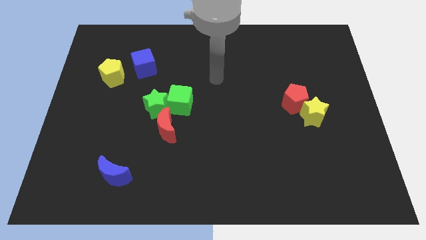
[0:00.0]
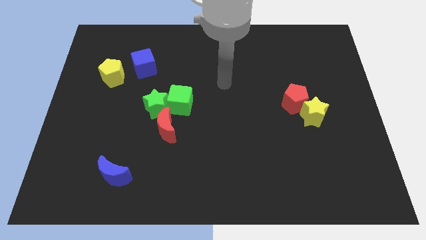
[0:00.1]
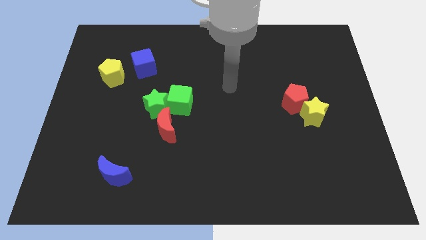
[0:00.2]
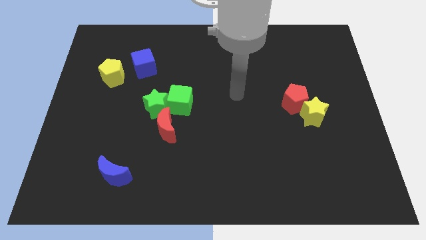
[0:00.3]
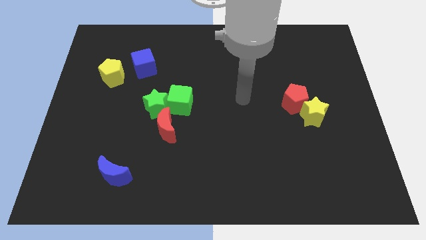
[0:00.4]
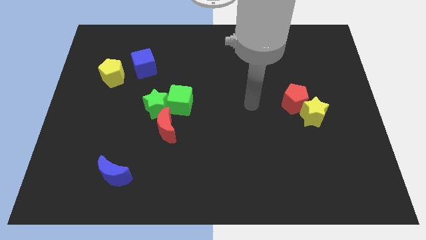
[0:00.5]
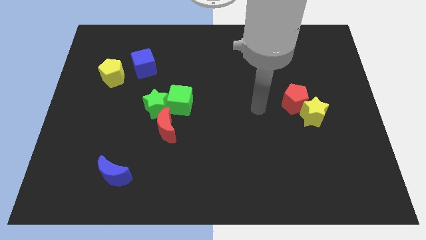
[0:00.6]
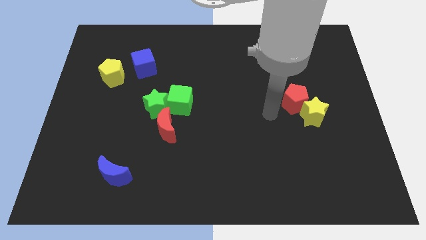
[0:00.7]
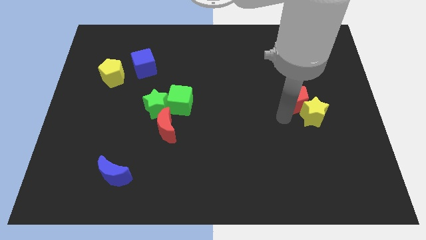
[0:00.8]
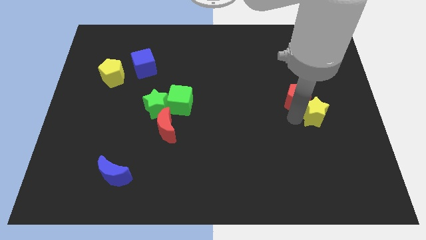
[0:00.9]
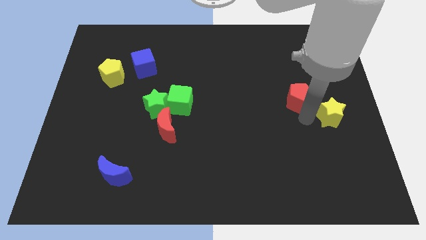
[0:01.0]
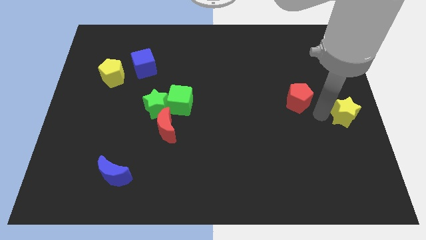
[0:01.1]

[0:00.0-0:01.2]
separate the red pentagon from the yellow star

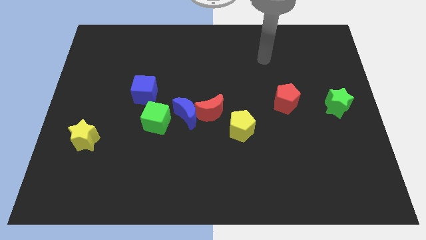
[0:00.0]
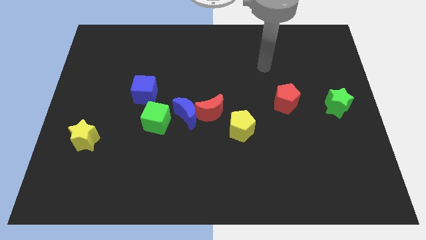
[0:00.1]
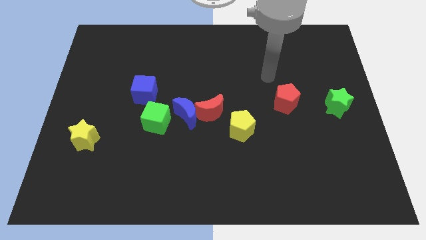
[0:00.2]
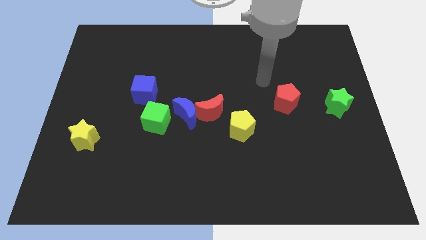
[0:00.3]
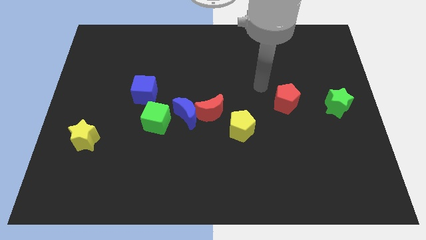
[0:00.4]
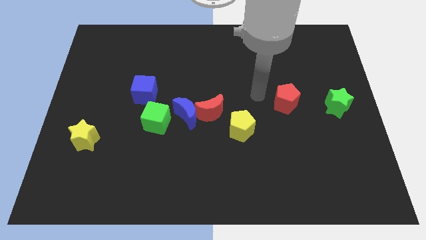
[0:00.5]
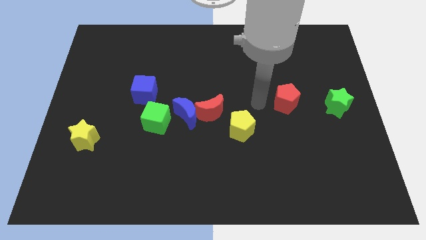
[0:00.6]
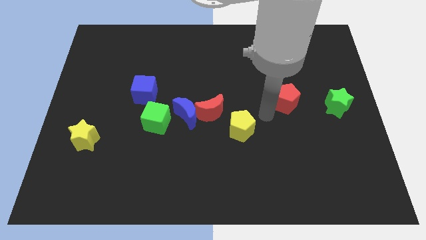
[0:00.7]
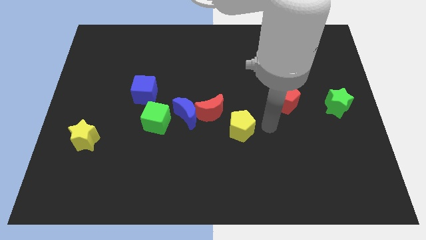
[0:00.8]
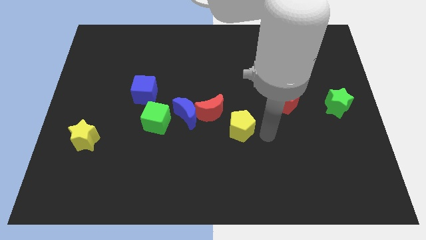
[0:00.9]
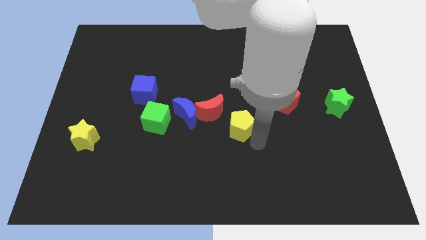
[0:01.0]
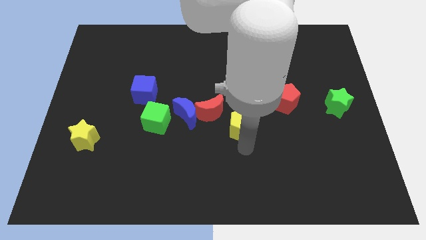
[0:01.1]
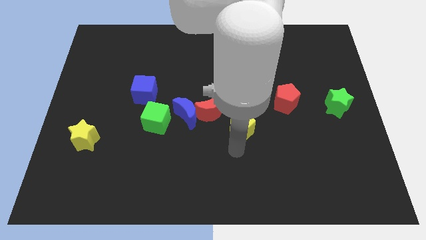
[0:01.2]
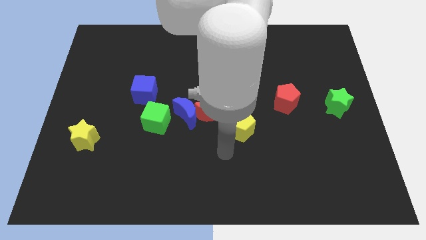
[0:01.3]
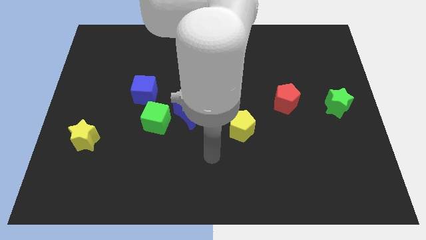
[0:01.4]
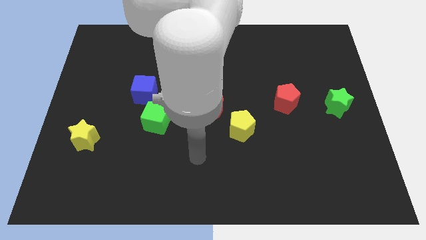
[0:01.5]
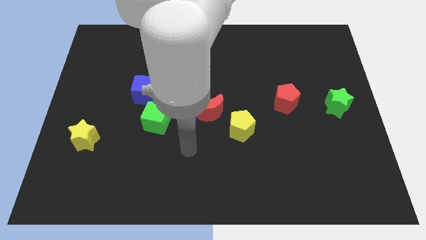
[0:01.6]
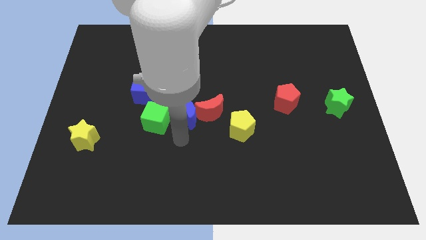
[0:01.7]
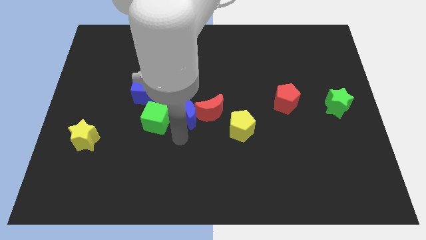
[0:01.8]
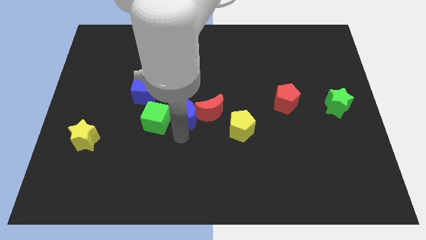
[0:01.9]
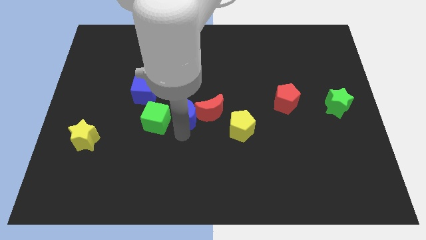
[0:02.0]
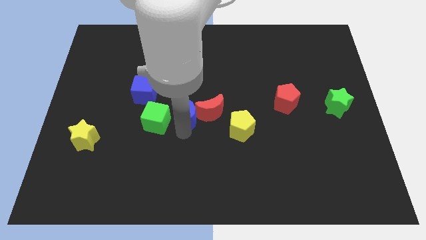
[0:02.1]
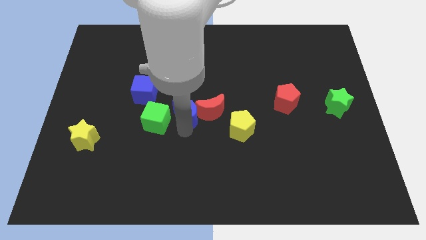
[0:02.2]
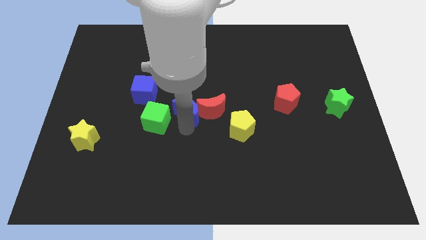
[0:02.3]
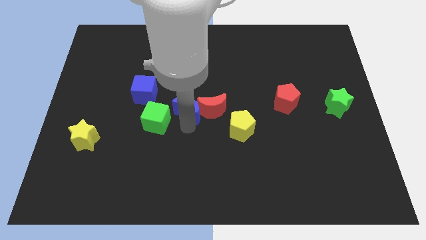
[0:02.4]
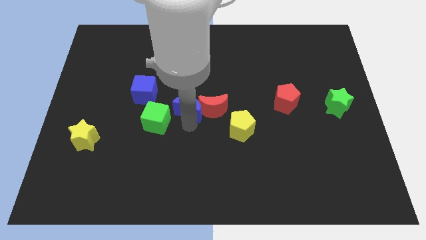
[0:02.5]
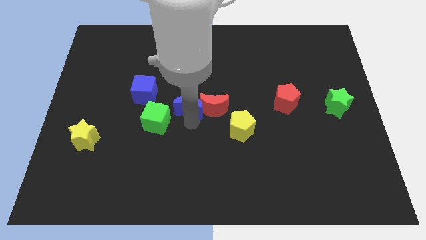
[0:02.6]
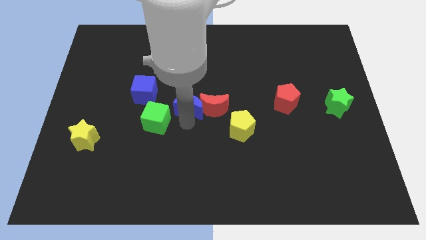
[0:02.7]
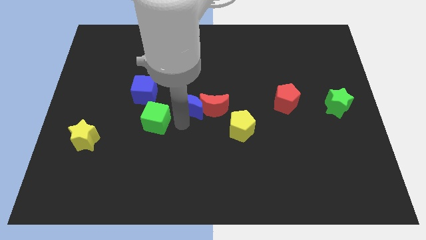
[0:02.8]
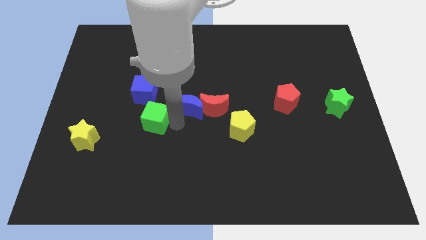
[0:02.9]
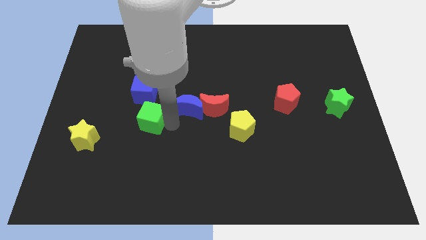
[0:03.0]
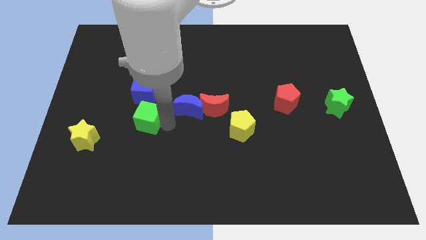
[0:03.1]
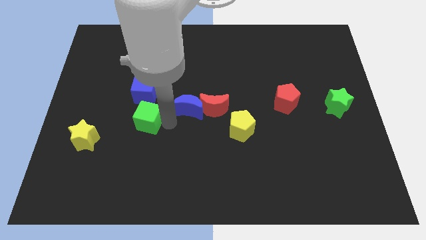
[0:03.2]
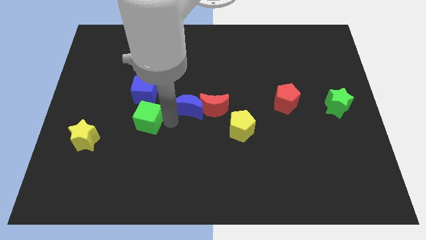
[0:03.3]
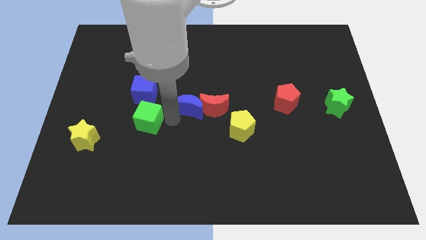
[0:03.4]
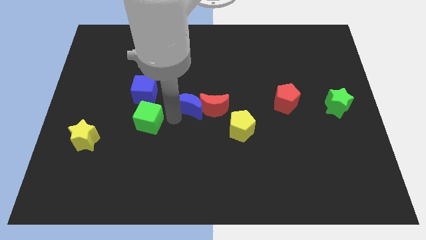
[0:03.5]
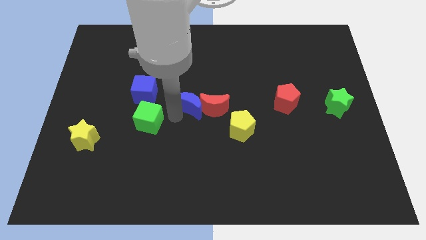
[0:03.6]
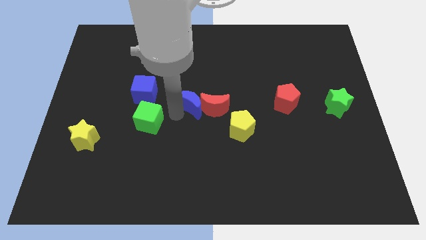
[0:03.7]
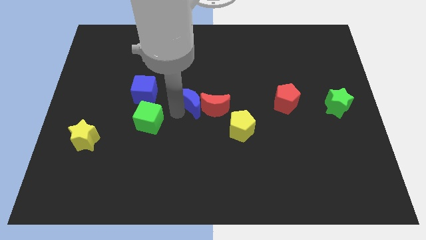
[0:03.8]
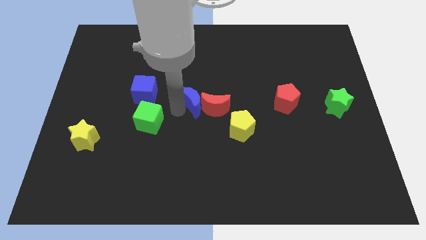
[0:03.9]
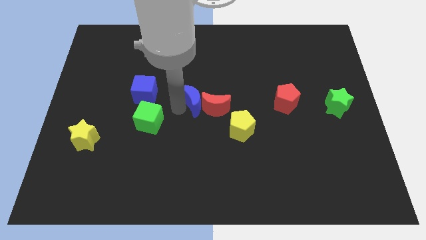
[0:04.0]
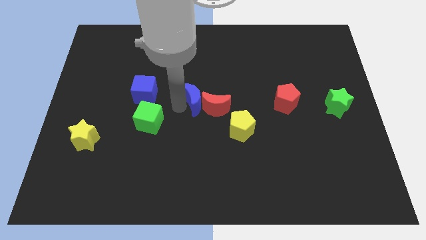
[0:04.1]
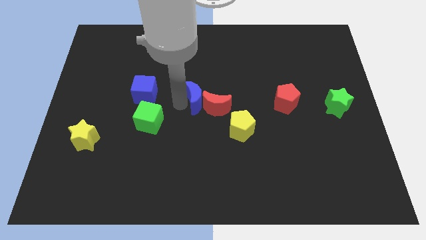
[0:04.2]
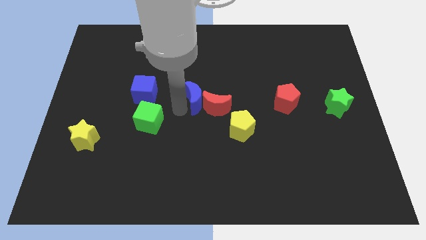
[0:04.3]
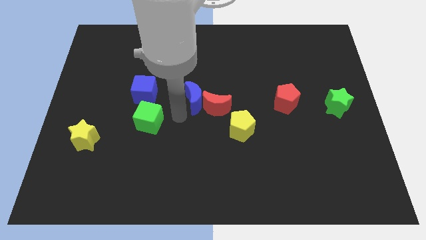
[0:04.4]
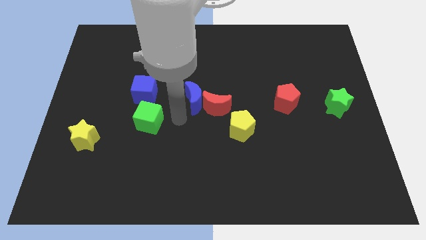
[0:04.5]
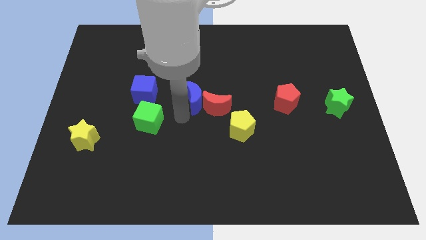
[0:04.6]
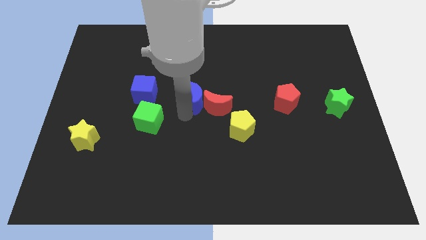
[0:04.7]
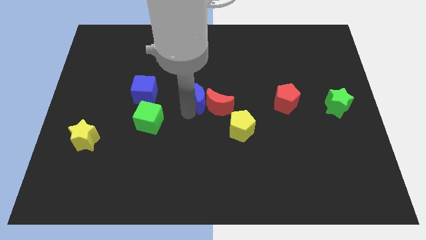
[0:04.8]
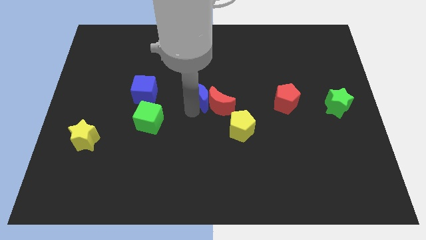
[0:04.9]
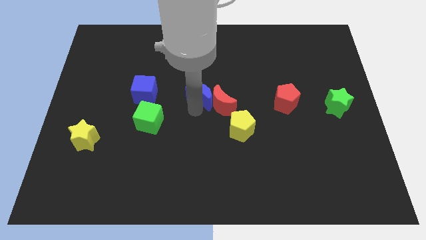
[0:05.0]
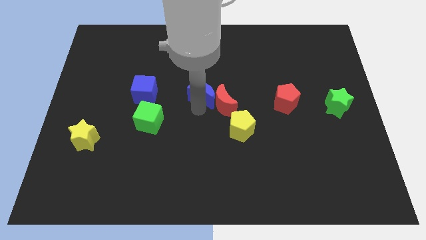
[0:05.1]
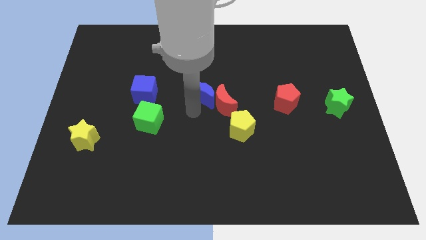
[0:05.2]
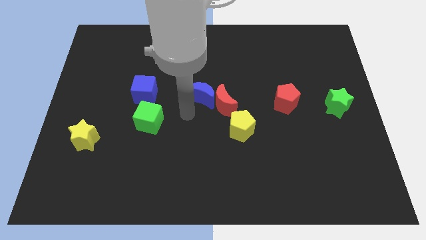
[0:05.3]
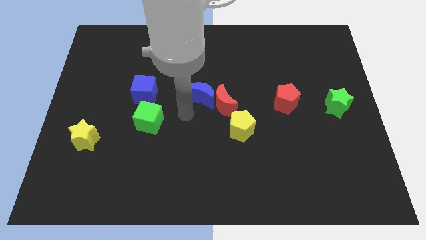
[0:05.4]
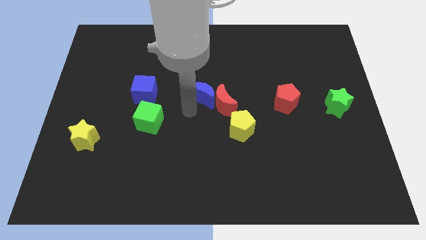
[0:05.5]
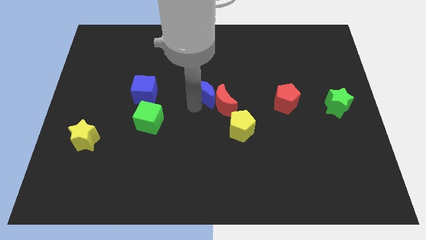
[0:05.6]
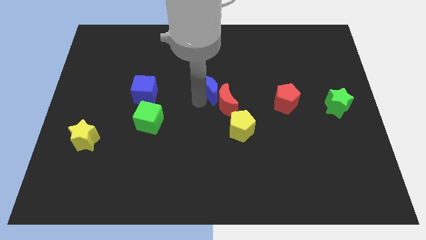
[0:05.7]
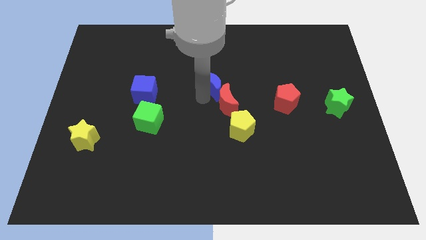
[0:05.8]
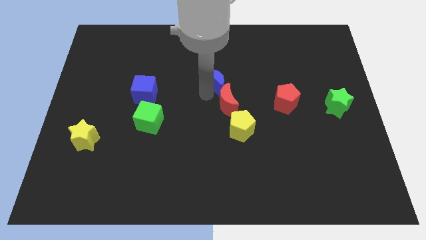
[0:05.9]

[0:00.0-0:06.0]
move the blue moon away from the red moon and green cube

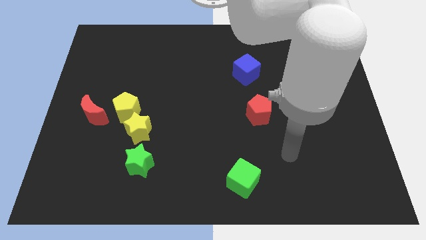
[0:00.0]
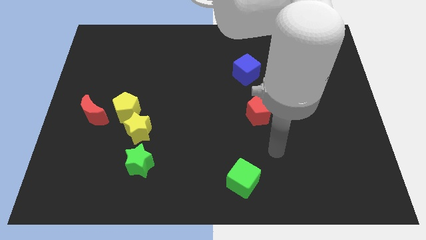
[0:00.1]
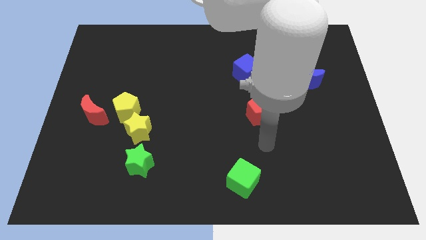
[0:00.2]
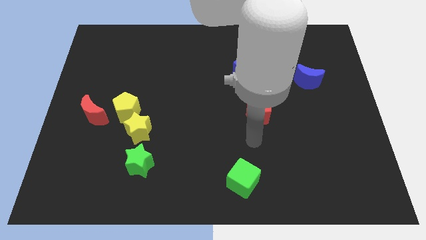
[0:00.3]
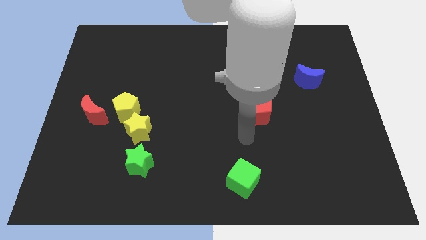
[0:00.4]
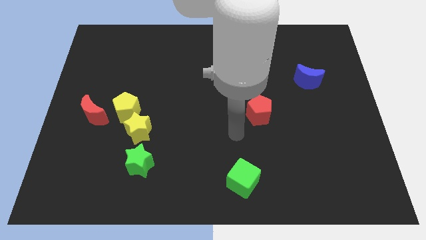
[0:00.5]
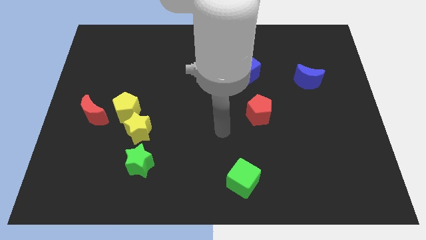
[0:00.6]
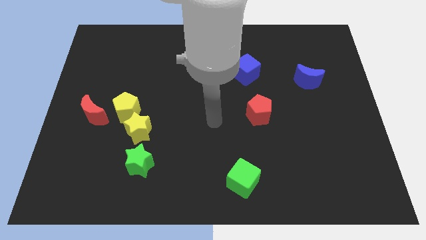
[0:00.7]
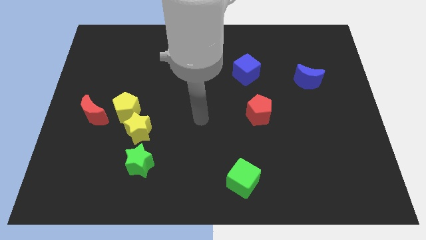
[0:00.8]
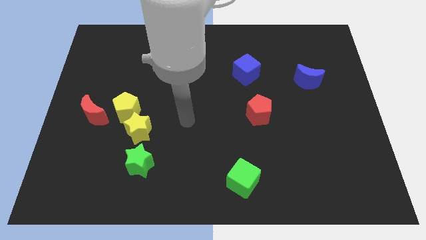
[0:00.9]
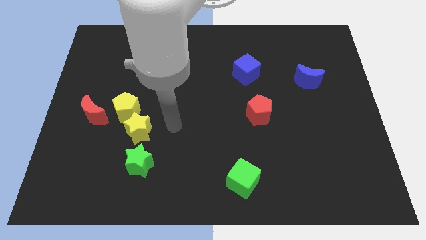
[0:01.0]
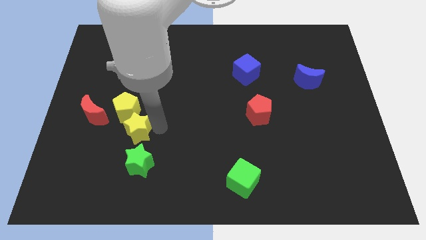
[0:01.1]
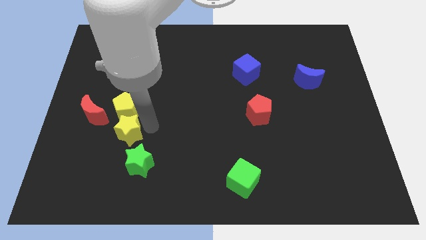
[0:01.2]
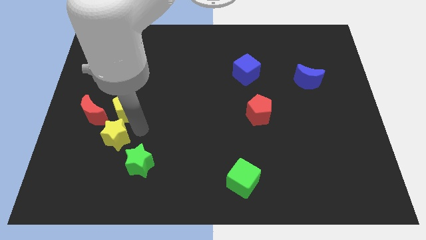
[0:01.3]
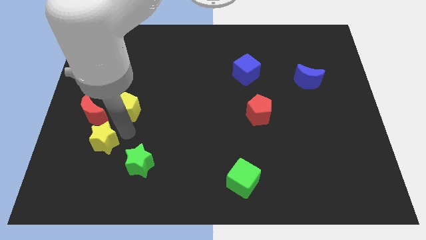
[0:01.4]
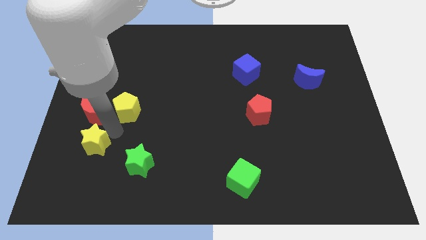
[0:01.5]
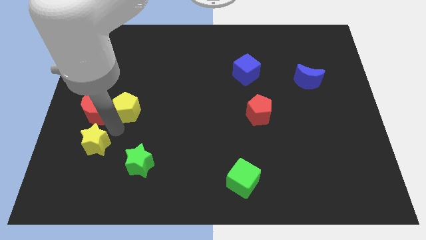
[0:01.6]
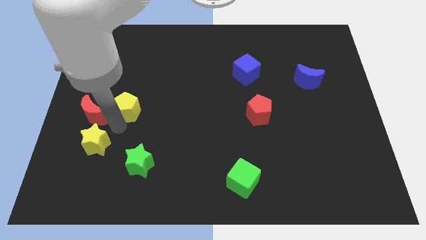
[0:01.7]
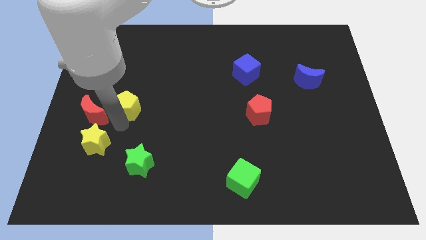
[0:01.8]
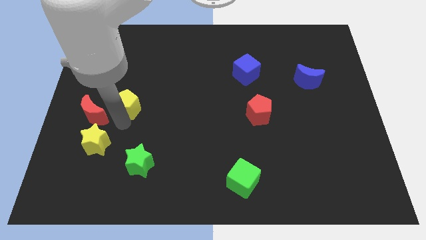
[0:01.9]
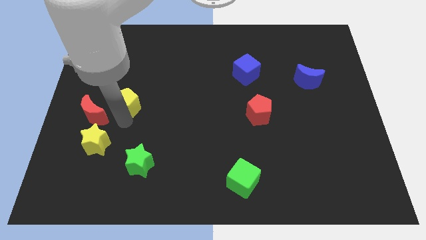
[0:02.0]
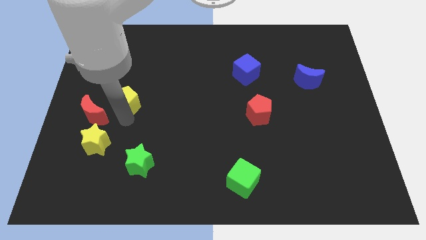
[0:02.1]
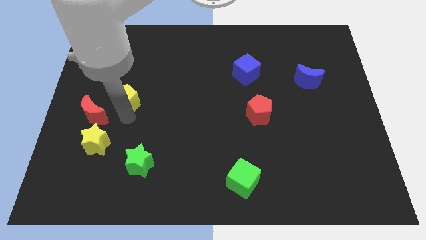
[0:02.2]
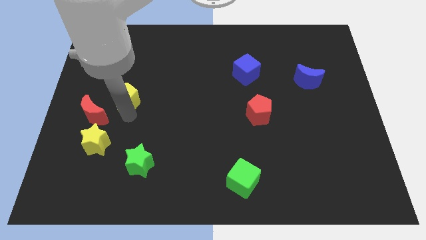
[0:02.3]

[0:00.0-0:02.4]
move the yellow pentagon away from the yellow star and red moon
